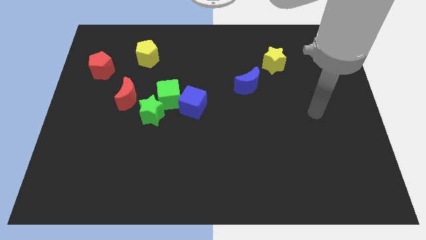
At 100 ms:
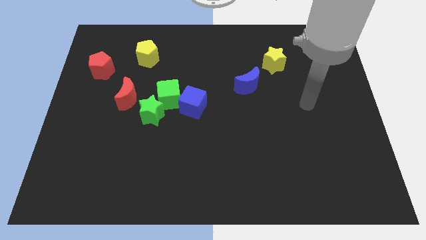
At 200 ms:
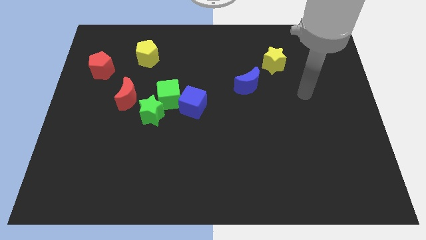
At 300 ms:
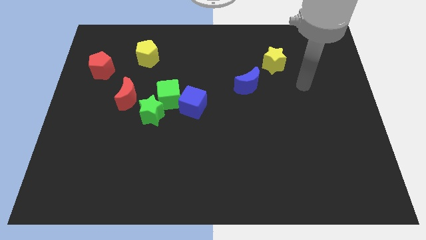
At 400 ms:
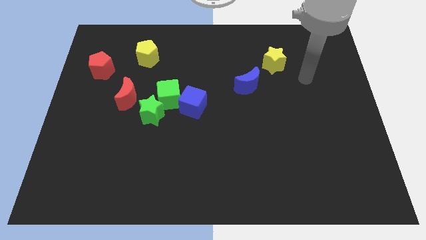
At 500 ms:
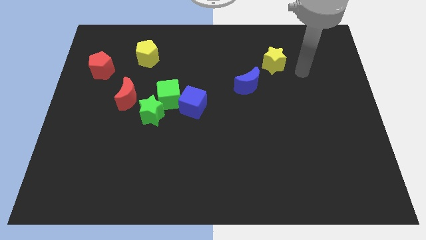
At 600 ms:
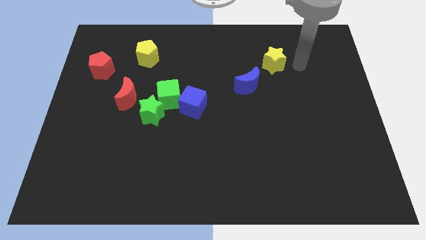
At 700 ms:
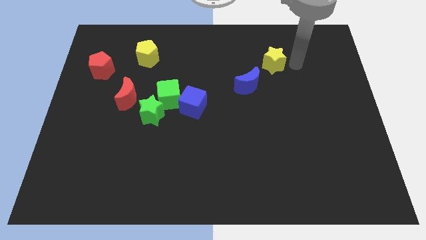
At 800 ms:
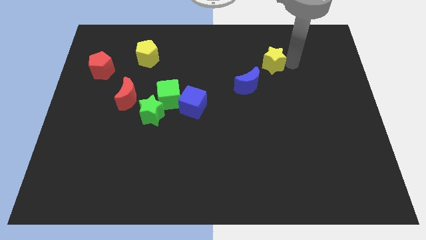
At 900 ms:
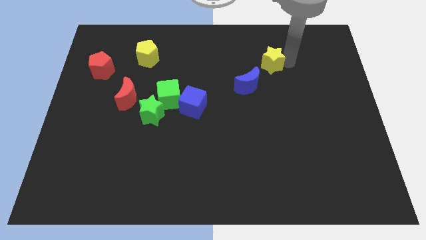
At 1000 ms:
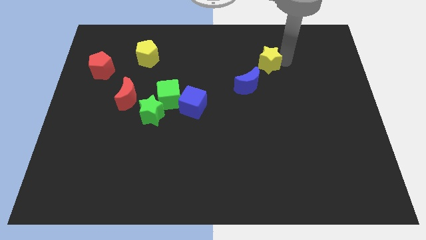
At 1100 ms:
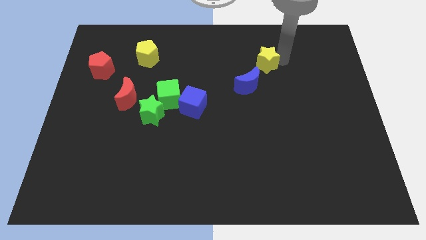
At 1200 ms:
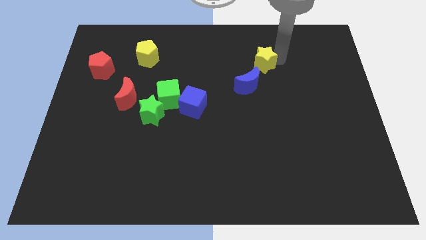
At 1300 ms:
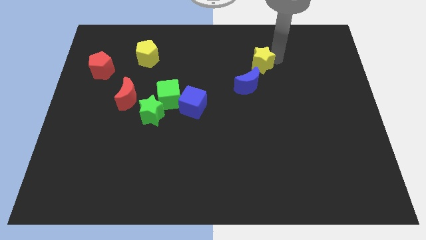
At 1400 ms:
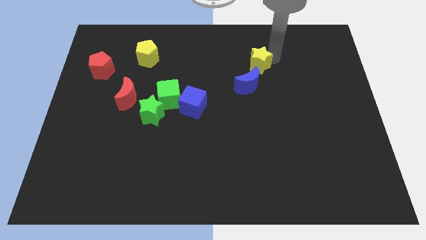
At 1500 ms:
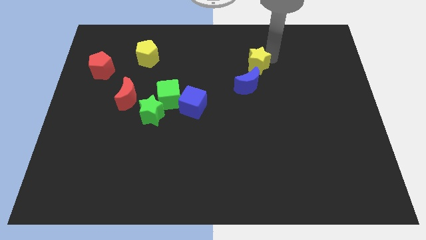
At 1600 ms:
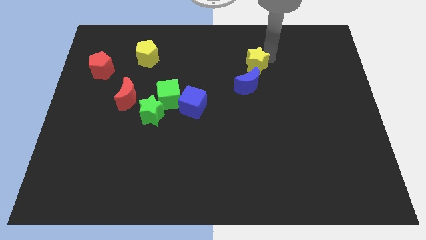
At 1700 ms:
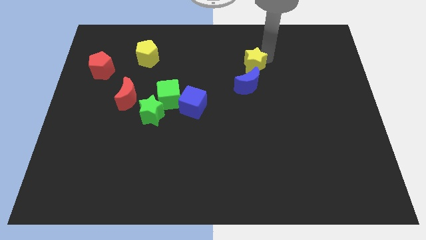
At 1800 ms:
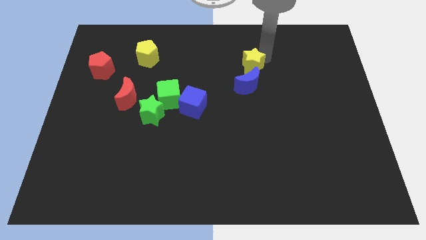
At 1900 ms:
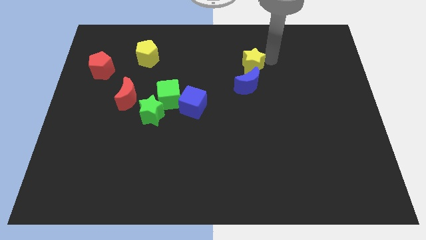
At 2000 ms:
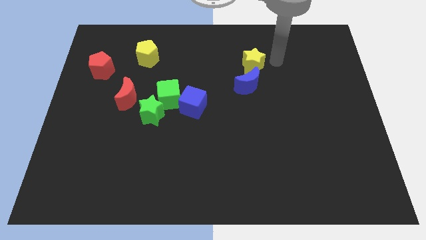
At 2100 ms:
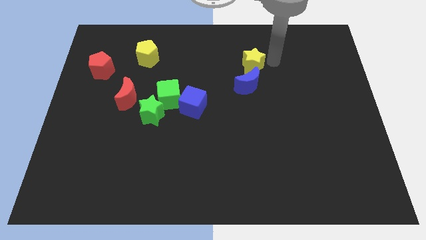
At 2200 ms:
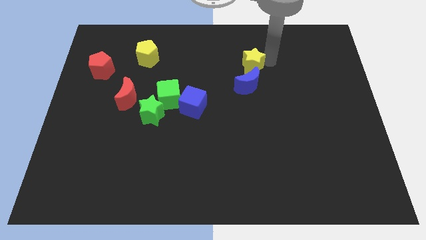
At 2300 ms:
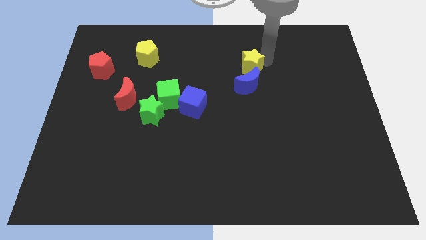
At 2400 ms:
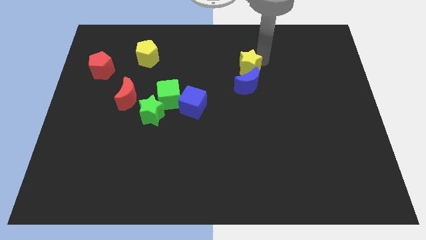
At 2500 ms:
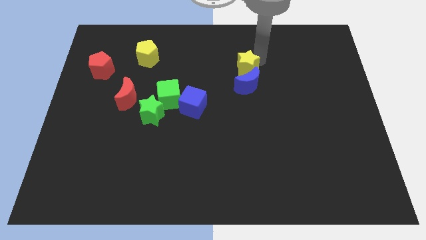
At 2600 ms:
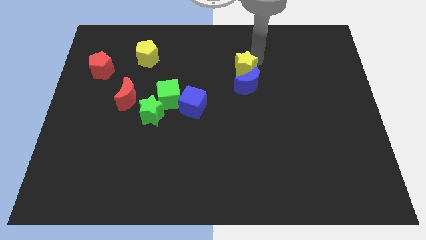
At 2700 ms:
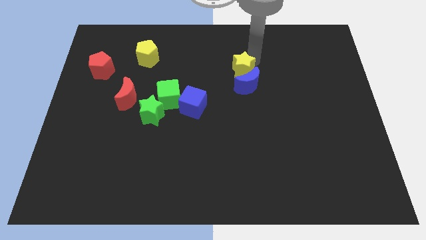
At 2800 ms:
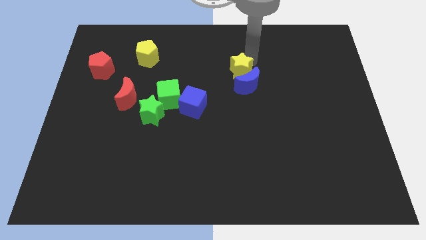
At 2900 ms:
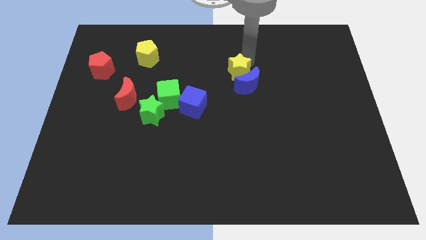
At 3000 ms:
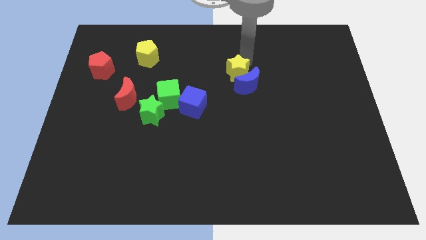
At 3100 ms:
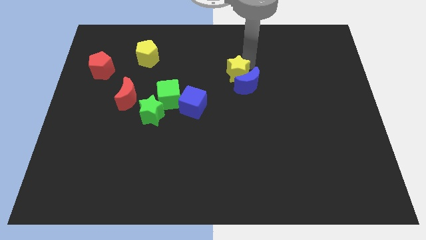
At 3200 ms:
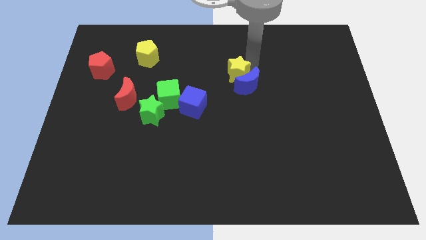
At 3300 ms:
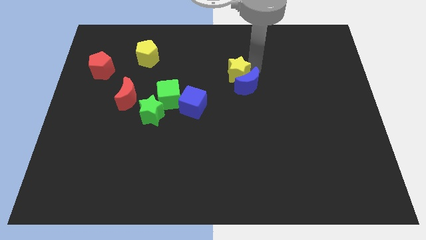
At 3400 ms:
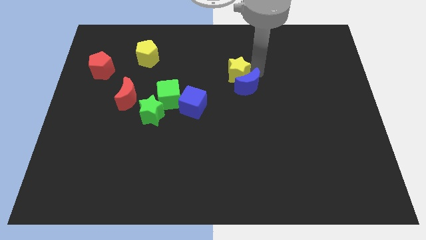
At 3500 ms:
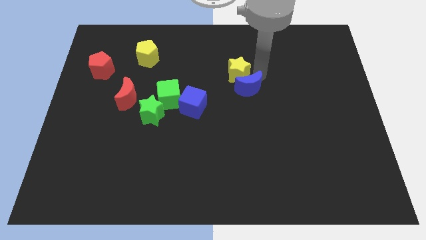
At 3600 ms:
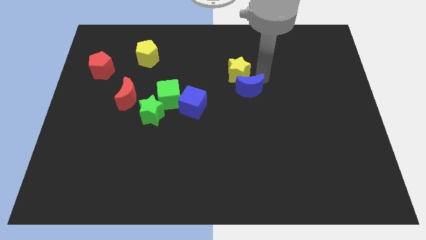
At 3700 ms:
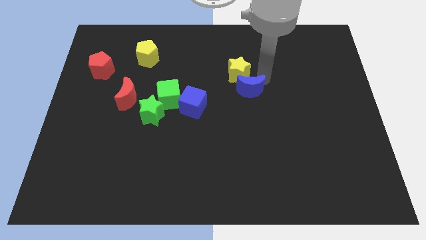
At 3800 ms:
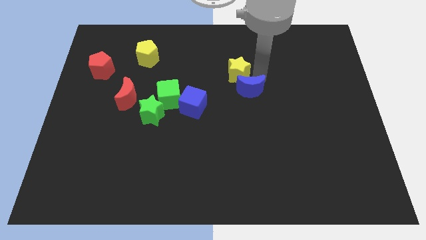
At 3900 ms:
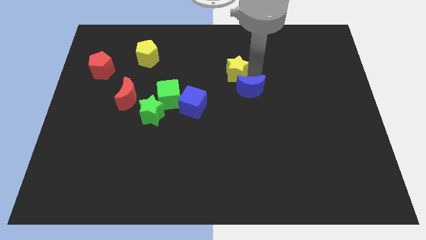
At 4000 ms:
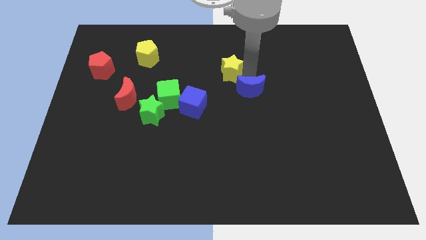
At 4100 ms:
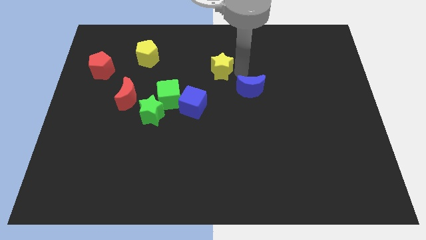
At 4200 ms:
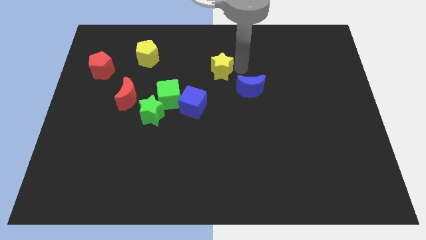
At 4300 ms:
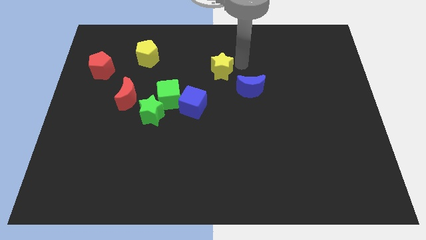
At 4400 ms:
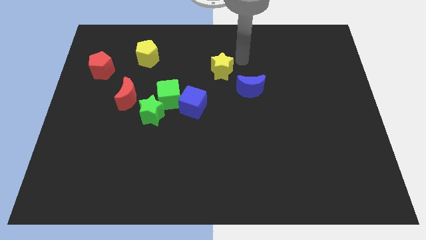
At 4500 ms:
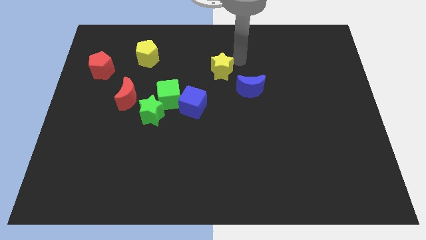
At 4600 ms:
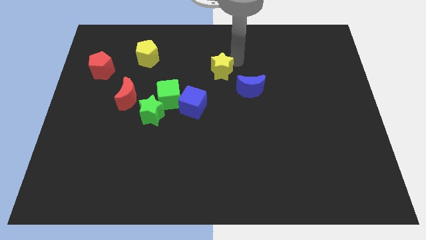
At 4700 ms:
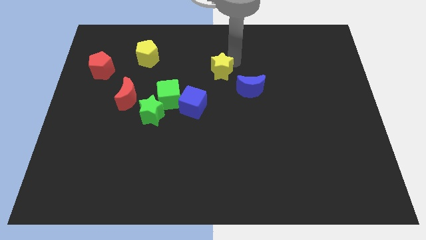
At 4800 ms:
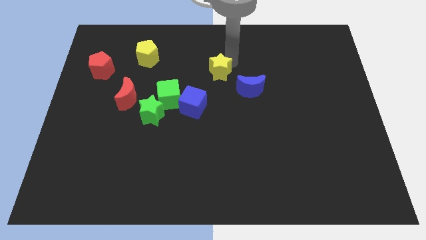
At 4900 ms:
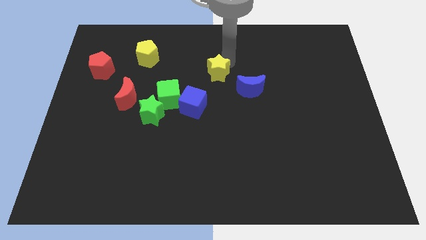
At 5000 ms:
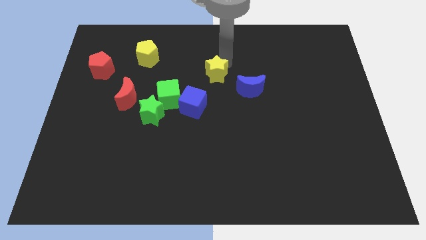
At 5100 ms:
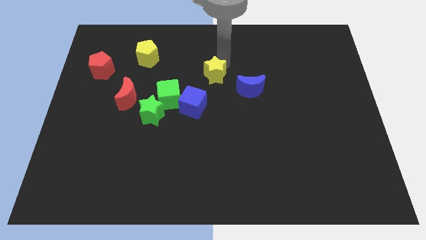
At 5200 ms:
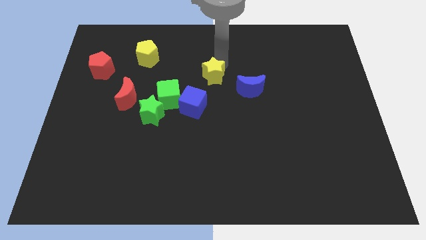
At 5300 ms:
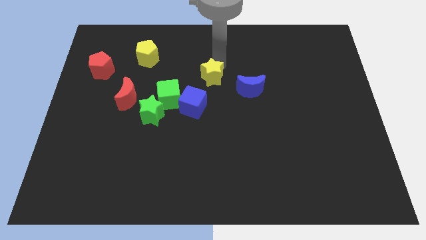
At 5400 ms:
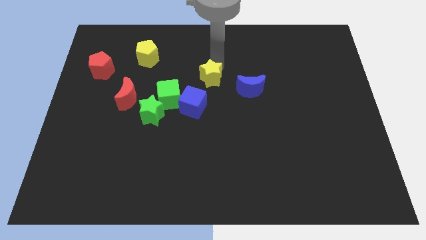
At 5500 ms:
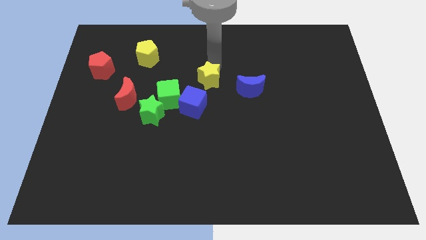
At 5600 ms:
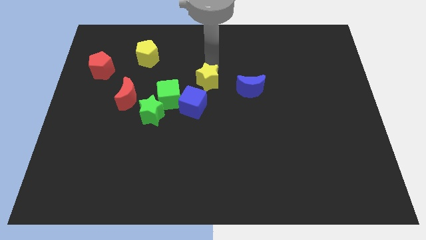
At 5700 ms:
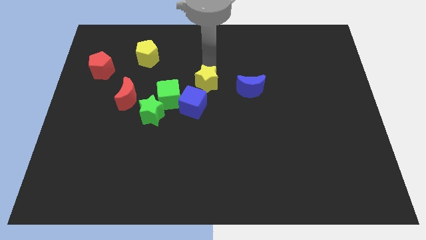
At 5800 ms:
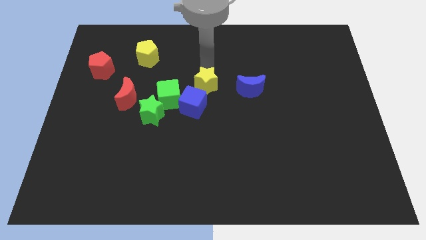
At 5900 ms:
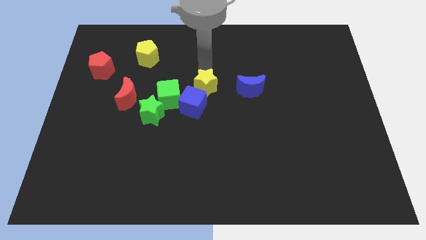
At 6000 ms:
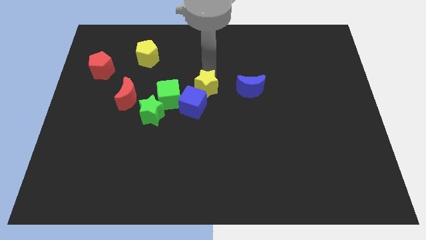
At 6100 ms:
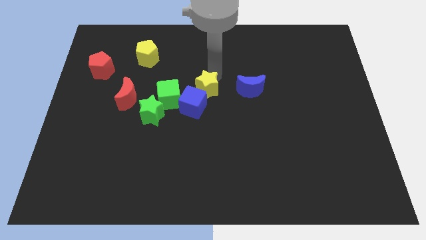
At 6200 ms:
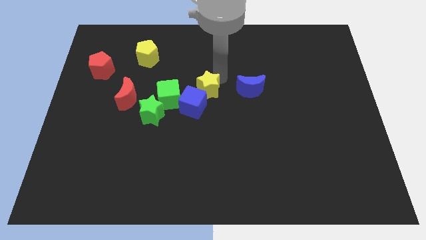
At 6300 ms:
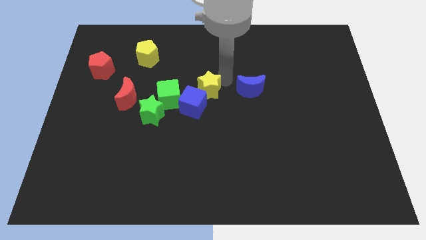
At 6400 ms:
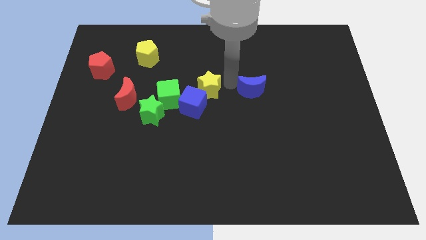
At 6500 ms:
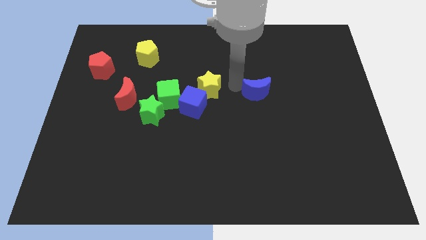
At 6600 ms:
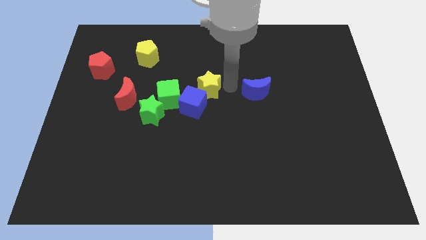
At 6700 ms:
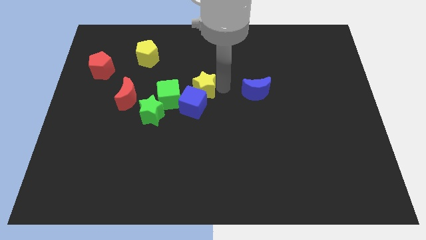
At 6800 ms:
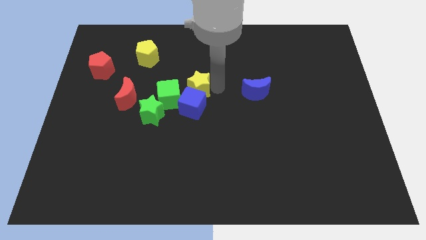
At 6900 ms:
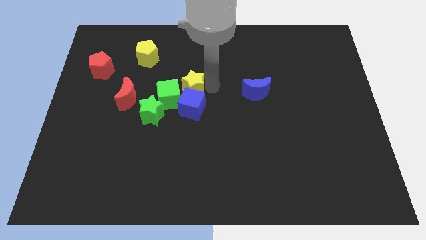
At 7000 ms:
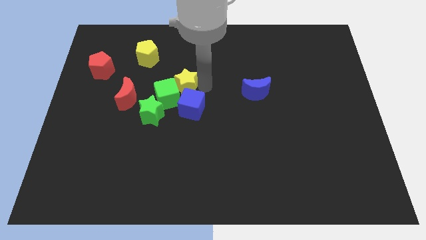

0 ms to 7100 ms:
push the yellow star next to the green cube
